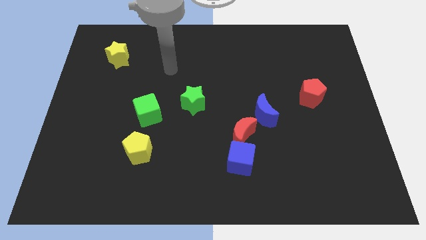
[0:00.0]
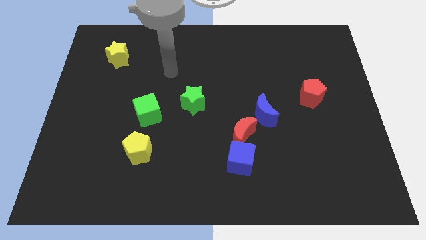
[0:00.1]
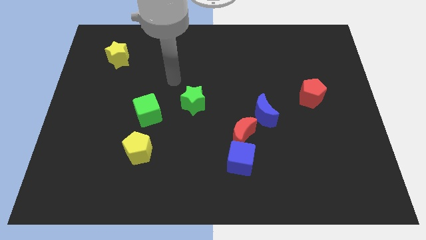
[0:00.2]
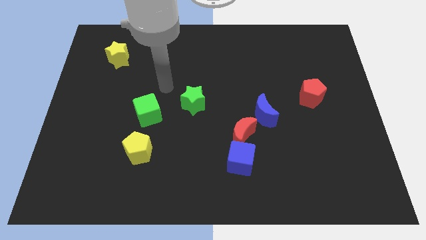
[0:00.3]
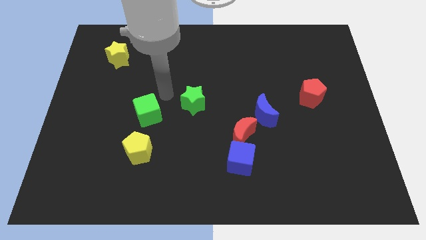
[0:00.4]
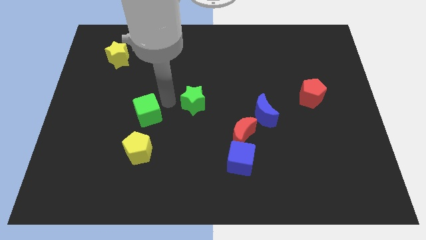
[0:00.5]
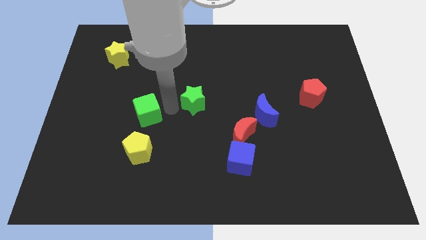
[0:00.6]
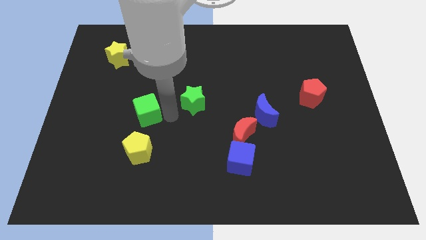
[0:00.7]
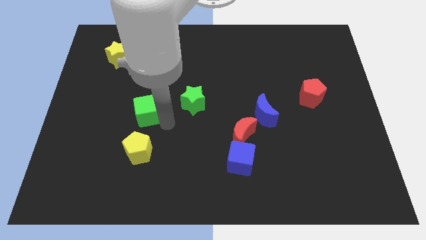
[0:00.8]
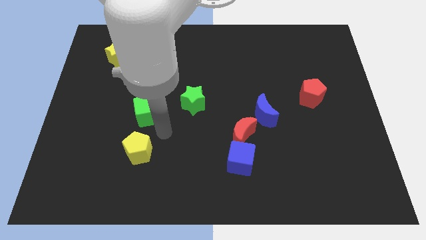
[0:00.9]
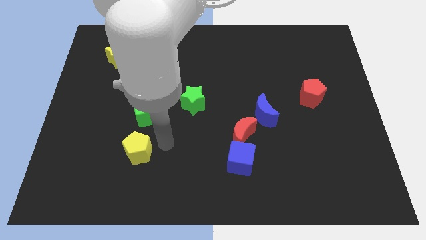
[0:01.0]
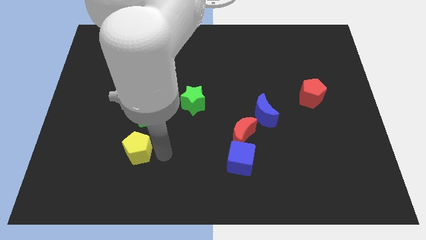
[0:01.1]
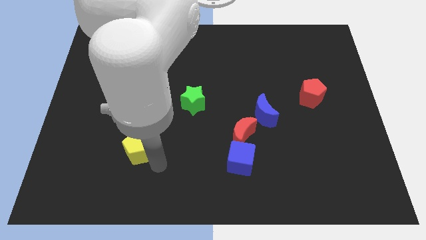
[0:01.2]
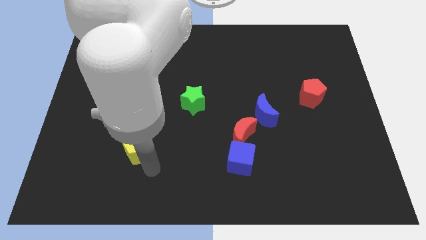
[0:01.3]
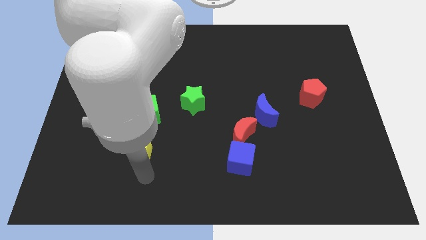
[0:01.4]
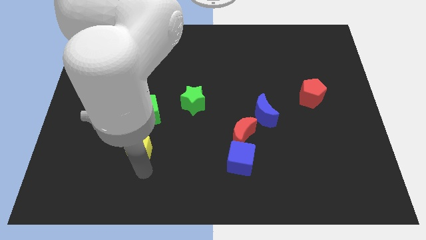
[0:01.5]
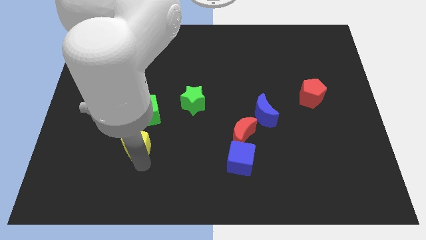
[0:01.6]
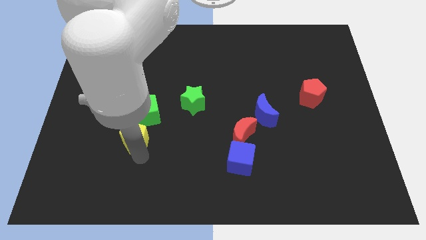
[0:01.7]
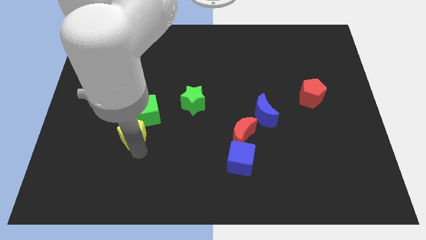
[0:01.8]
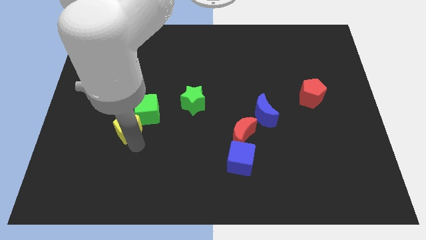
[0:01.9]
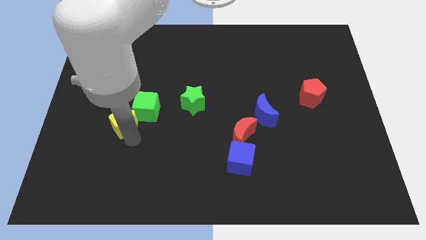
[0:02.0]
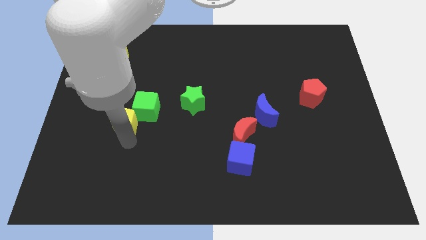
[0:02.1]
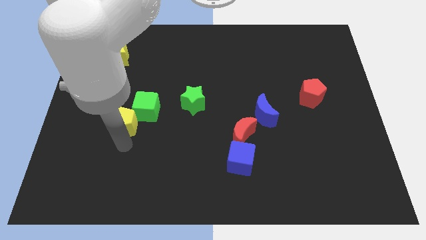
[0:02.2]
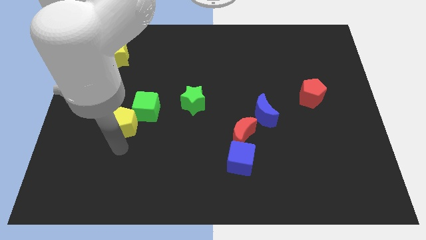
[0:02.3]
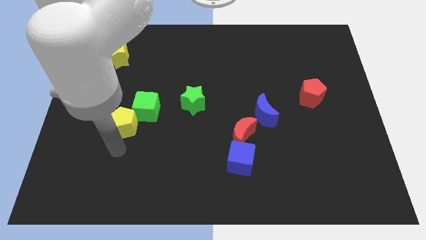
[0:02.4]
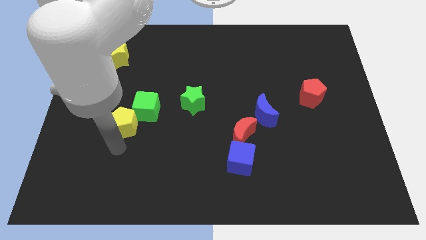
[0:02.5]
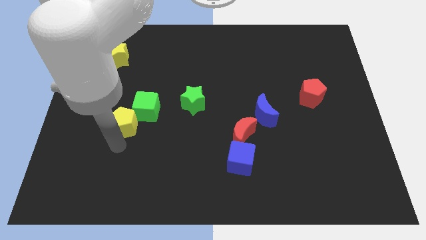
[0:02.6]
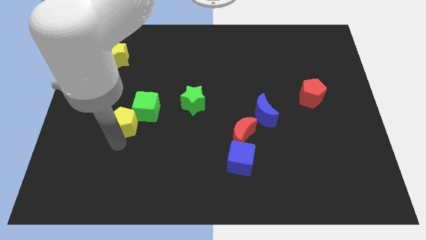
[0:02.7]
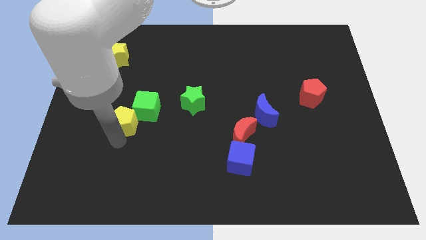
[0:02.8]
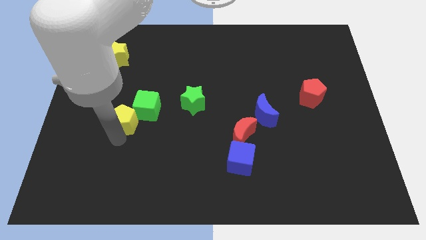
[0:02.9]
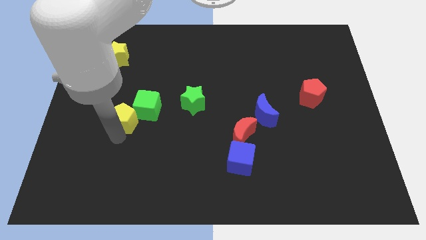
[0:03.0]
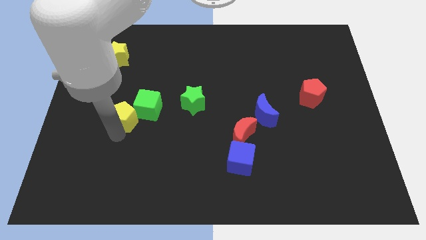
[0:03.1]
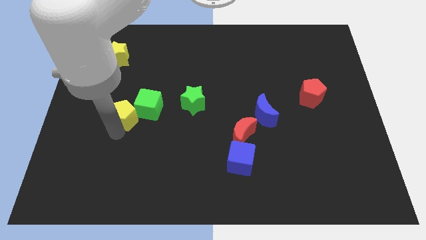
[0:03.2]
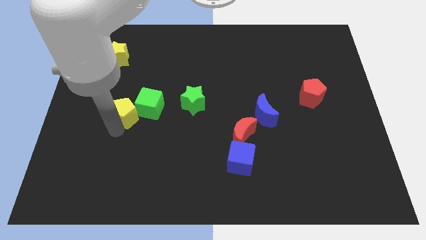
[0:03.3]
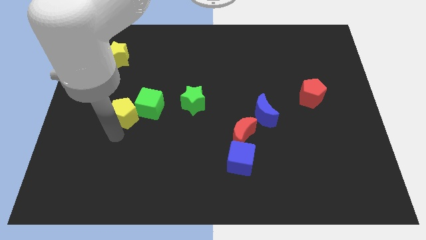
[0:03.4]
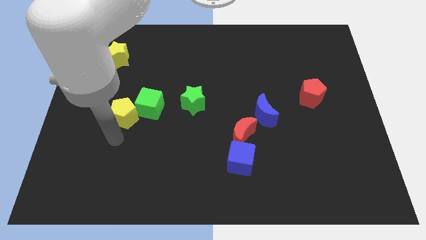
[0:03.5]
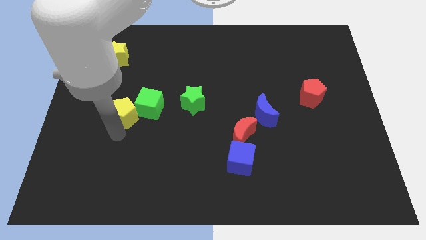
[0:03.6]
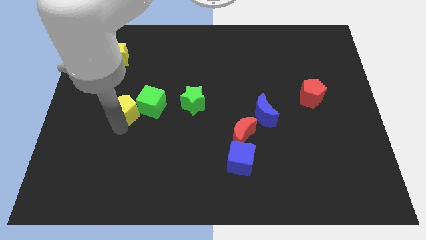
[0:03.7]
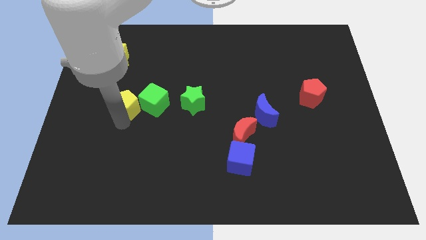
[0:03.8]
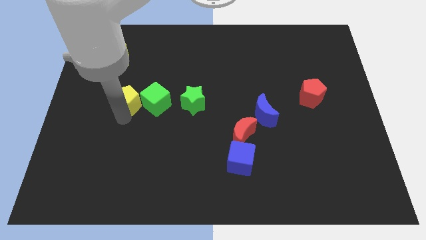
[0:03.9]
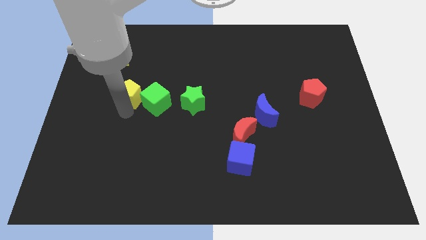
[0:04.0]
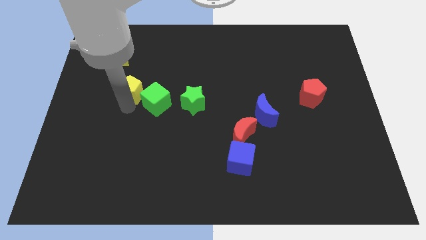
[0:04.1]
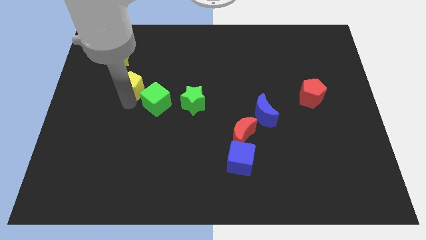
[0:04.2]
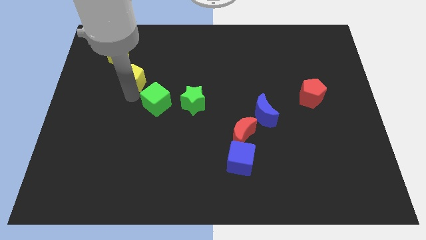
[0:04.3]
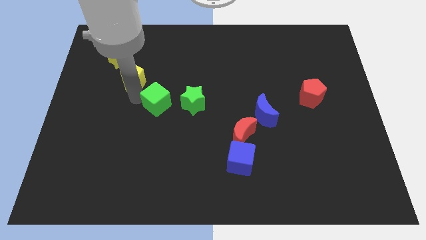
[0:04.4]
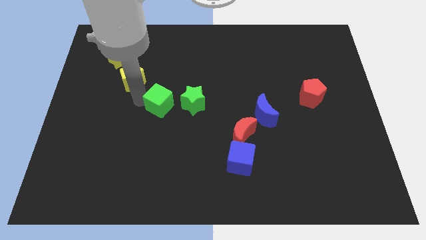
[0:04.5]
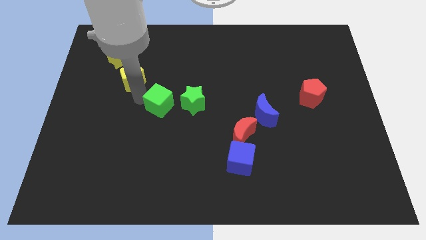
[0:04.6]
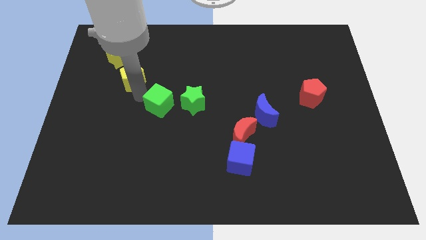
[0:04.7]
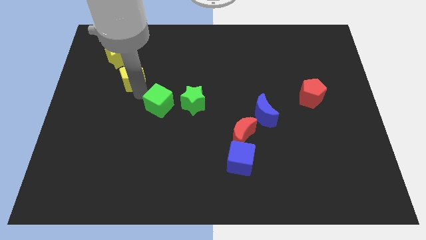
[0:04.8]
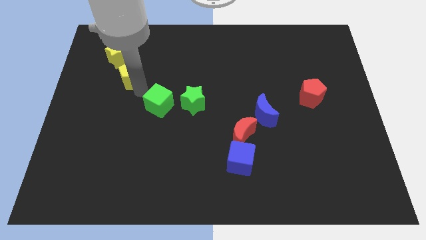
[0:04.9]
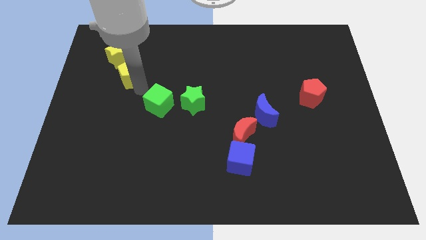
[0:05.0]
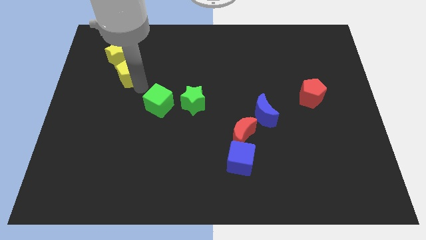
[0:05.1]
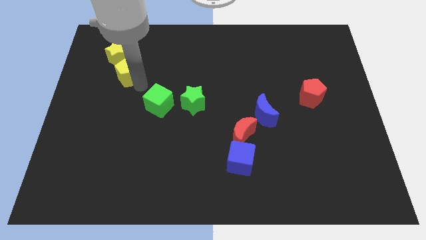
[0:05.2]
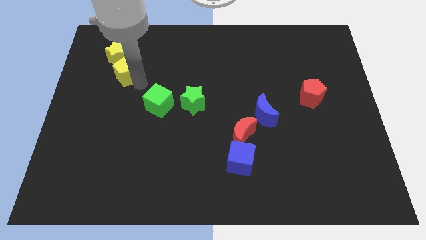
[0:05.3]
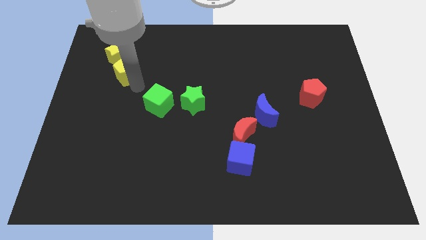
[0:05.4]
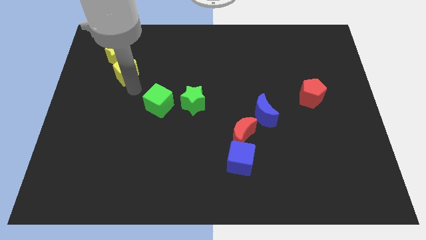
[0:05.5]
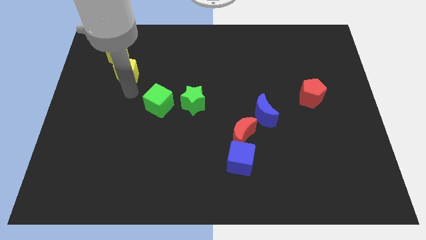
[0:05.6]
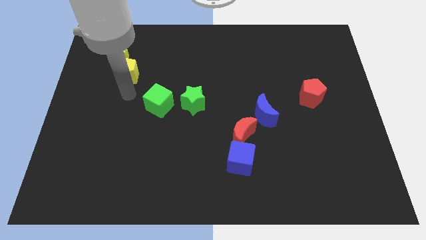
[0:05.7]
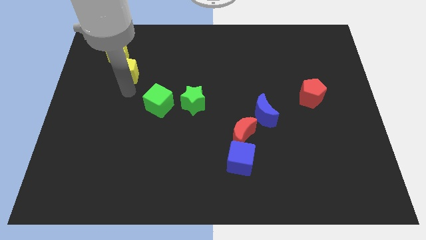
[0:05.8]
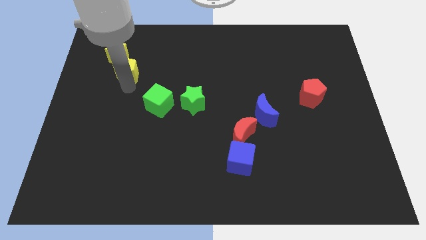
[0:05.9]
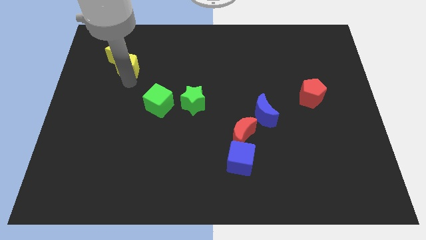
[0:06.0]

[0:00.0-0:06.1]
push the yellow pentagon close to the yellow star

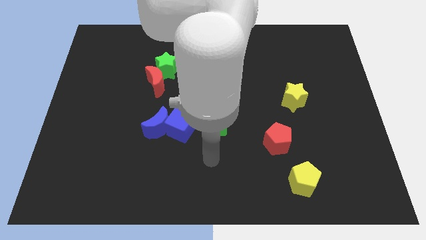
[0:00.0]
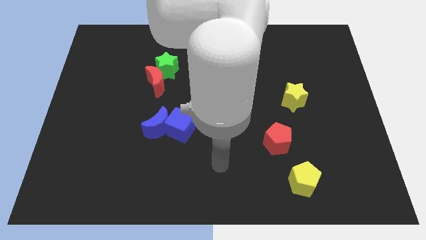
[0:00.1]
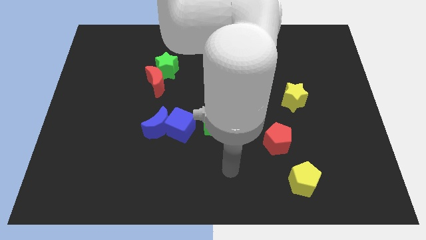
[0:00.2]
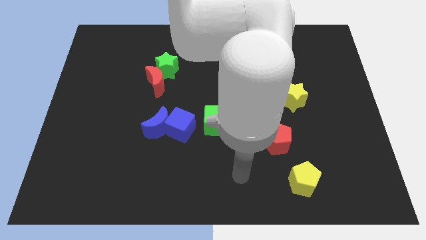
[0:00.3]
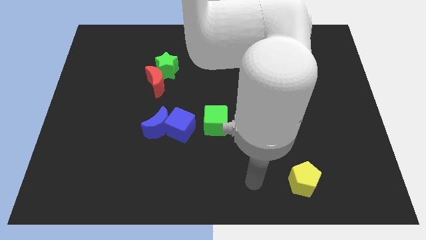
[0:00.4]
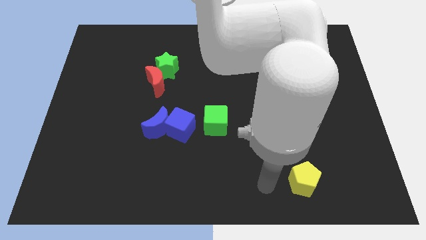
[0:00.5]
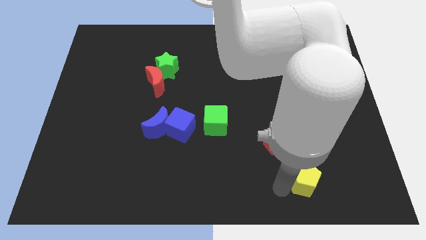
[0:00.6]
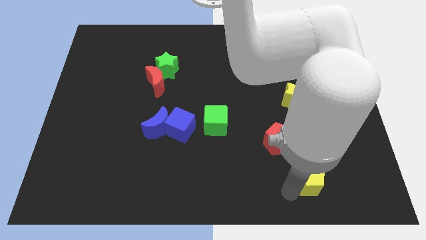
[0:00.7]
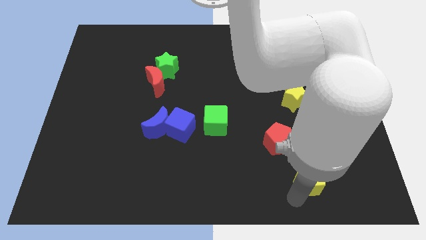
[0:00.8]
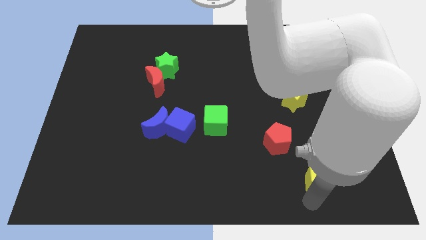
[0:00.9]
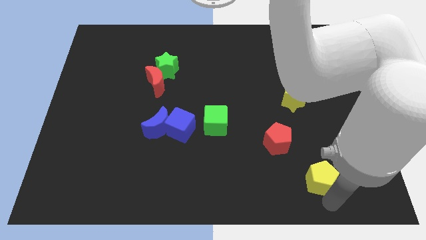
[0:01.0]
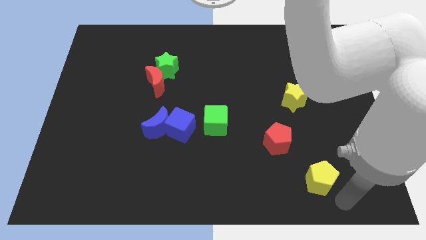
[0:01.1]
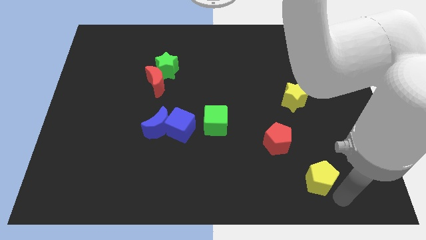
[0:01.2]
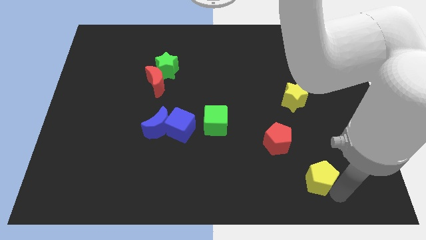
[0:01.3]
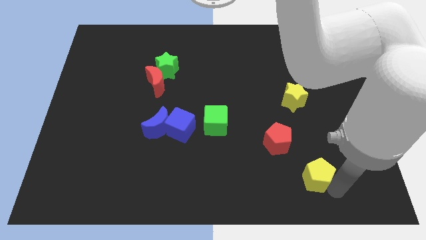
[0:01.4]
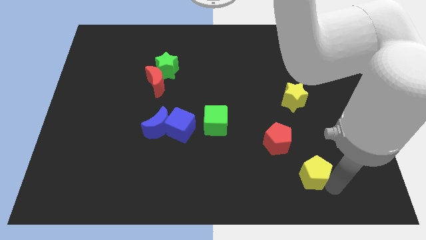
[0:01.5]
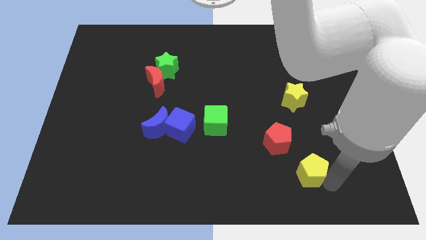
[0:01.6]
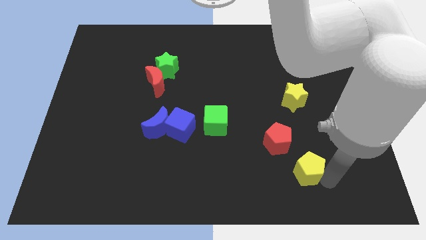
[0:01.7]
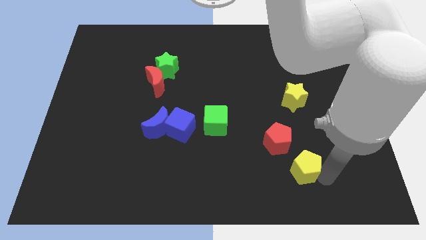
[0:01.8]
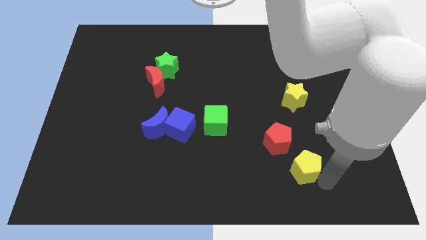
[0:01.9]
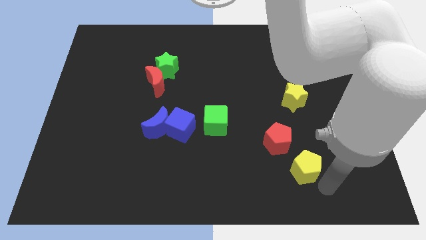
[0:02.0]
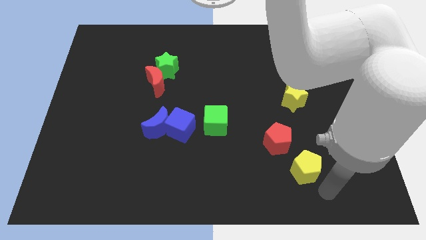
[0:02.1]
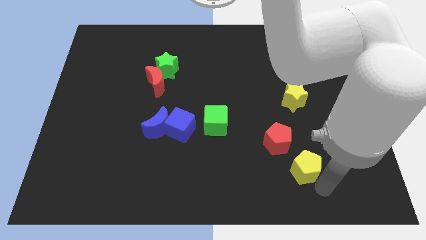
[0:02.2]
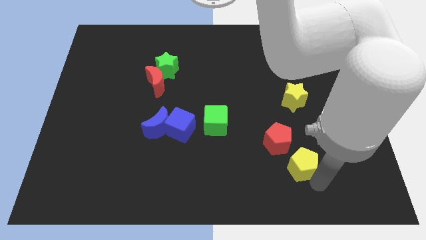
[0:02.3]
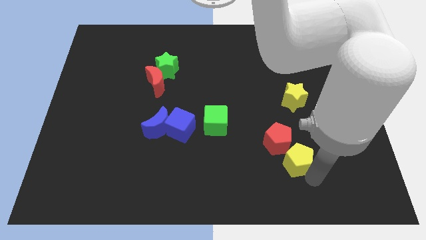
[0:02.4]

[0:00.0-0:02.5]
move the yellow pentagon towards the red pentagon
